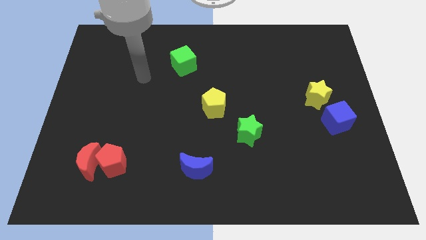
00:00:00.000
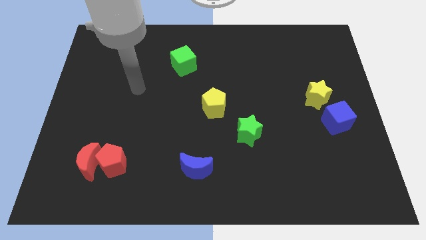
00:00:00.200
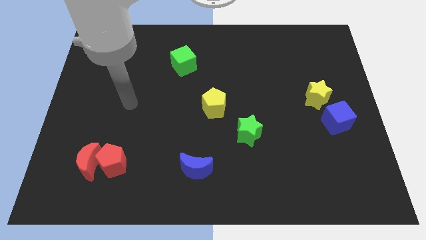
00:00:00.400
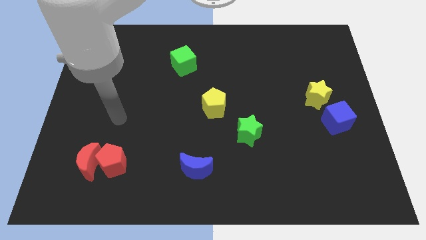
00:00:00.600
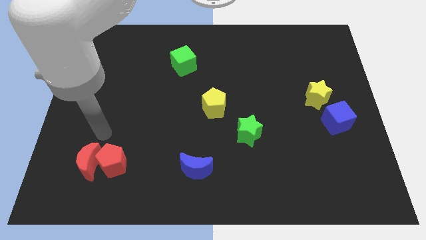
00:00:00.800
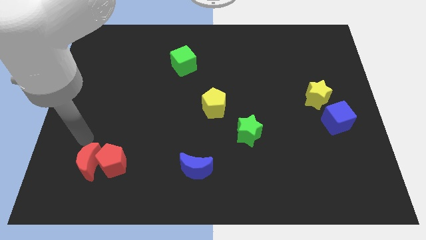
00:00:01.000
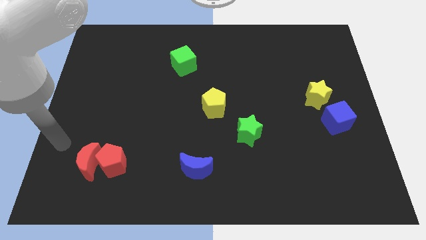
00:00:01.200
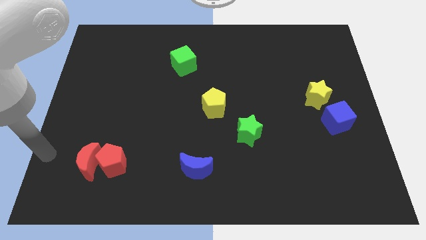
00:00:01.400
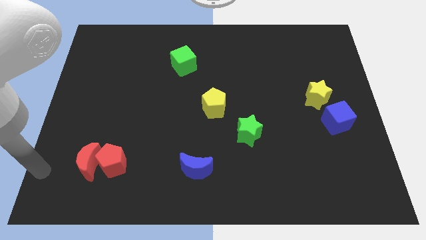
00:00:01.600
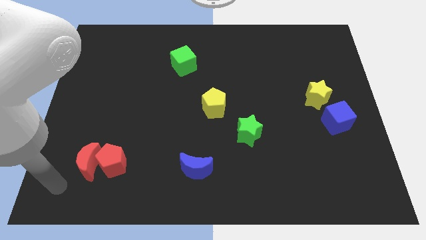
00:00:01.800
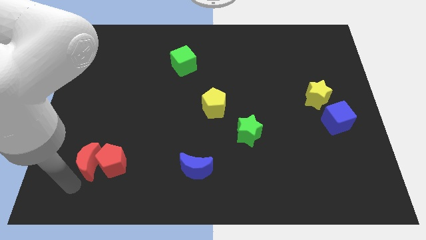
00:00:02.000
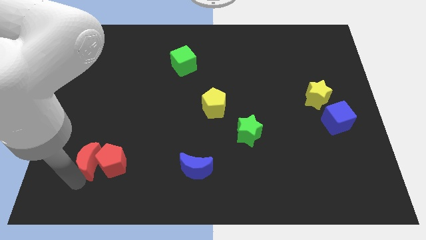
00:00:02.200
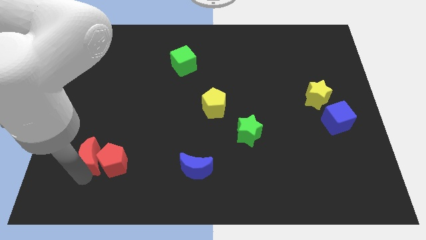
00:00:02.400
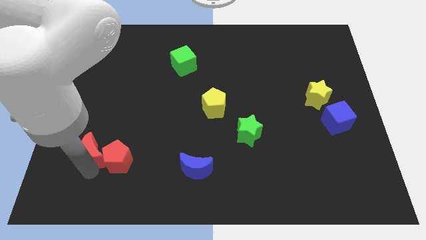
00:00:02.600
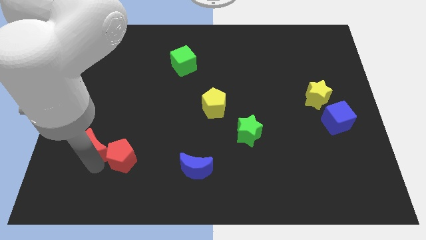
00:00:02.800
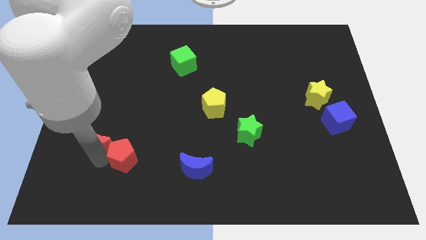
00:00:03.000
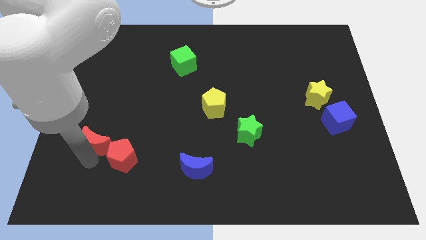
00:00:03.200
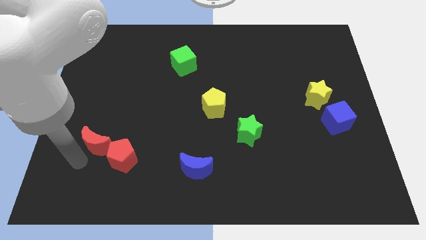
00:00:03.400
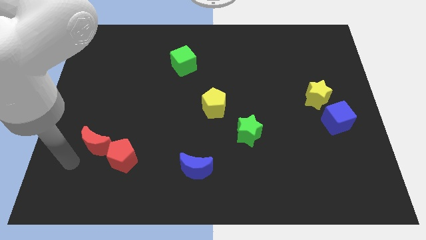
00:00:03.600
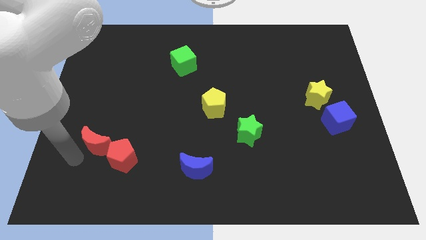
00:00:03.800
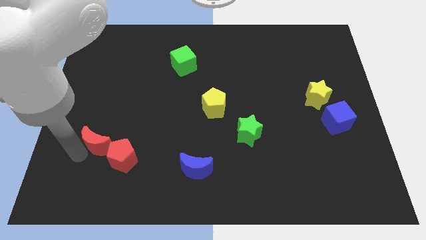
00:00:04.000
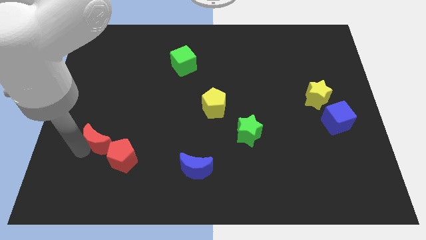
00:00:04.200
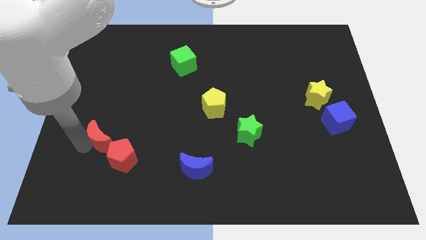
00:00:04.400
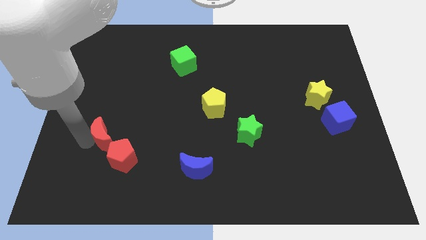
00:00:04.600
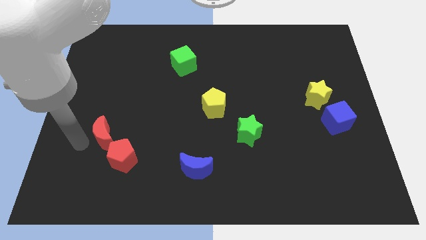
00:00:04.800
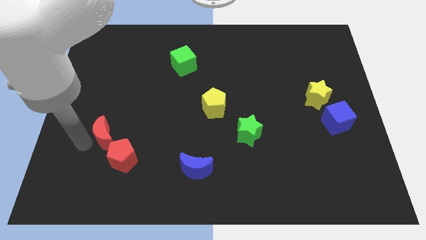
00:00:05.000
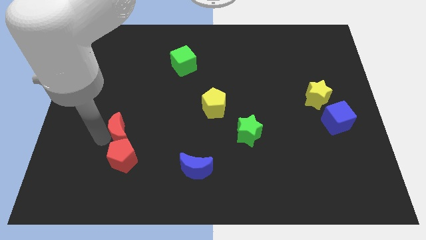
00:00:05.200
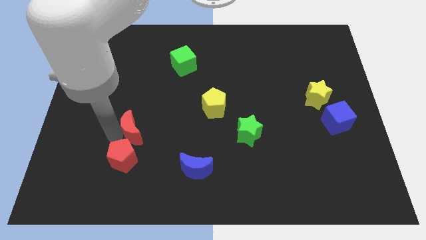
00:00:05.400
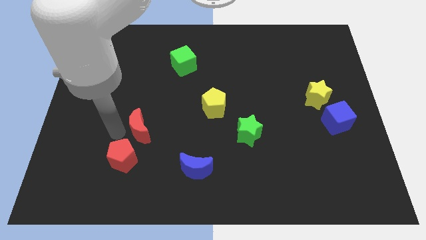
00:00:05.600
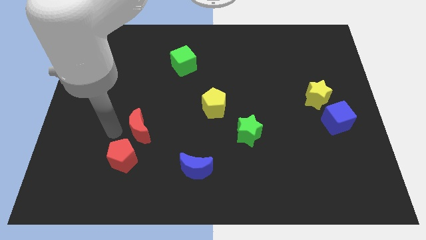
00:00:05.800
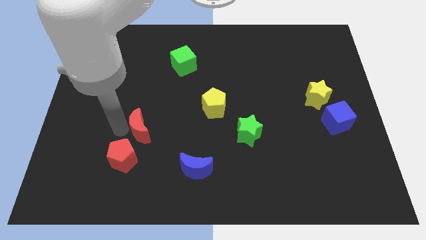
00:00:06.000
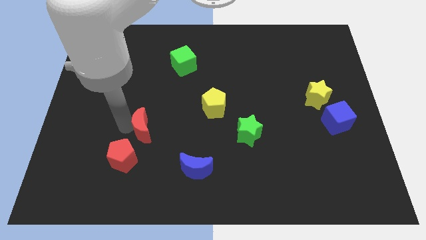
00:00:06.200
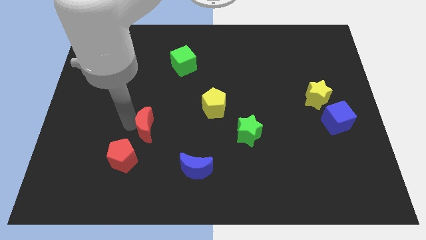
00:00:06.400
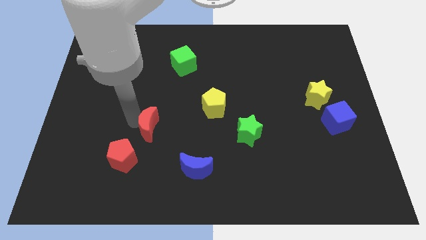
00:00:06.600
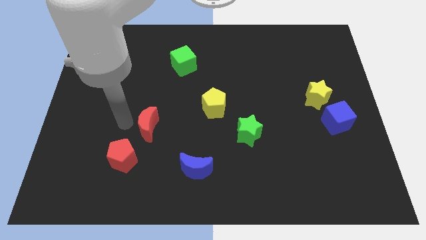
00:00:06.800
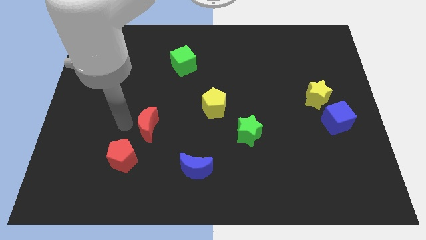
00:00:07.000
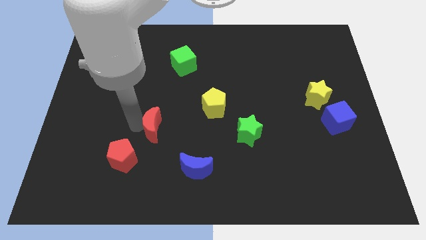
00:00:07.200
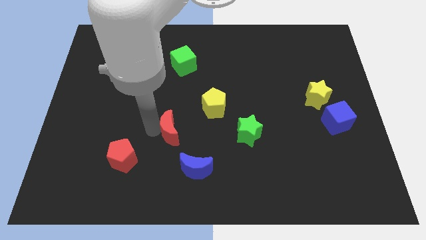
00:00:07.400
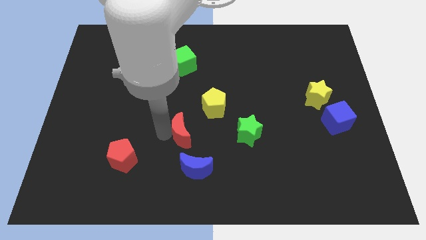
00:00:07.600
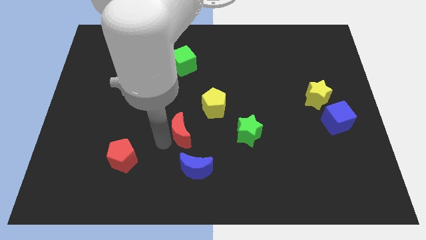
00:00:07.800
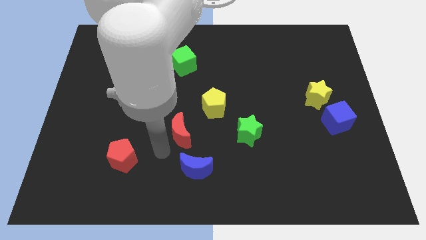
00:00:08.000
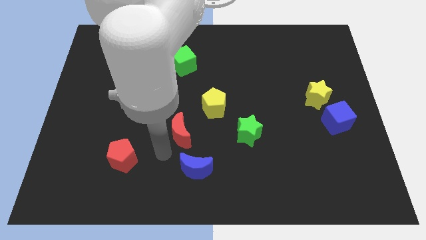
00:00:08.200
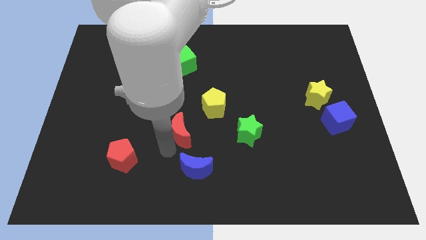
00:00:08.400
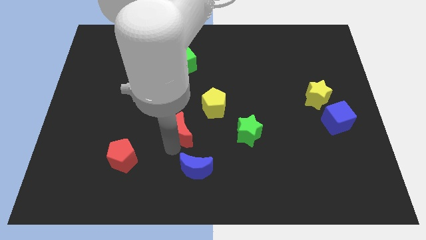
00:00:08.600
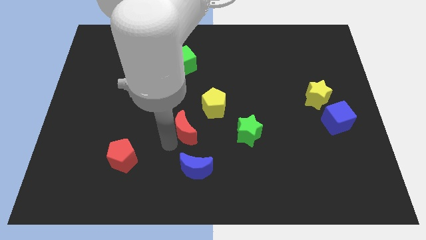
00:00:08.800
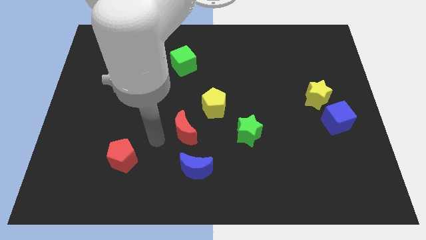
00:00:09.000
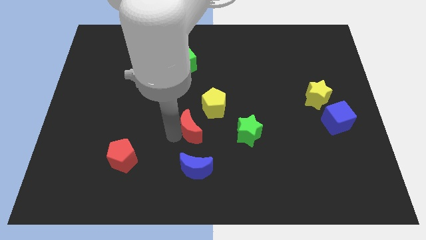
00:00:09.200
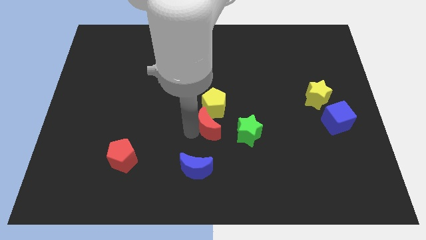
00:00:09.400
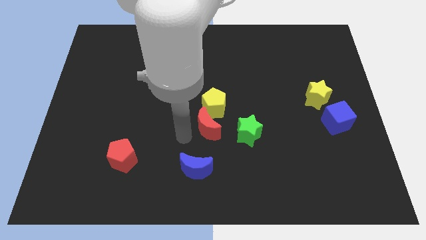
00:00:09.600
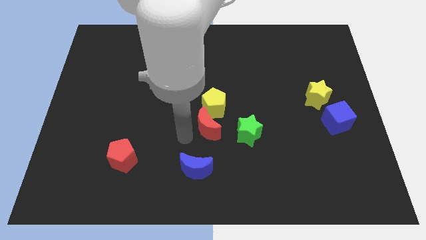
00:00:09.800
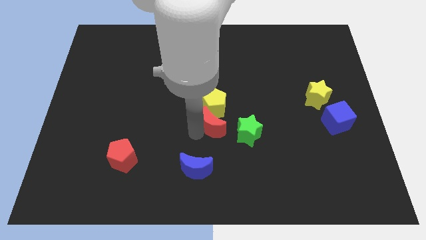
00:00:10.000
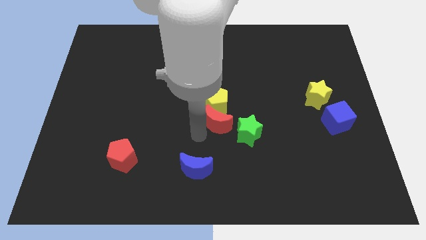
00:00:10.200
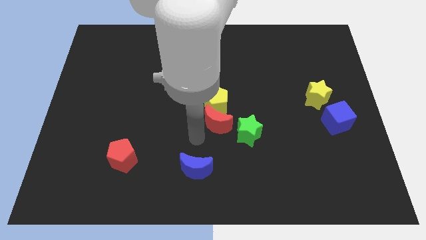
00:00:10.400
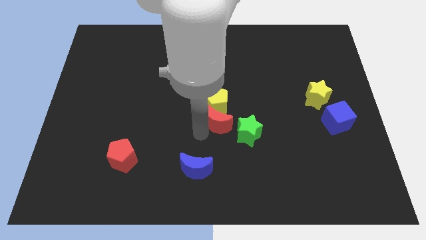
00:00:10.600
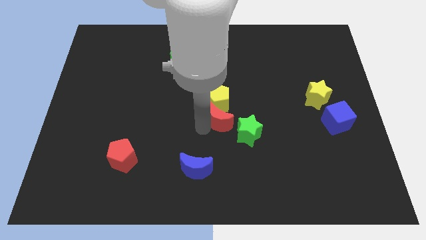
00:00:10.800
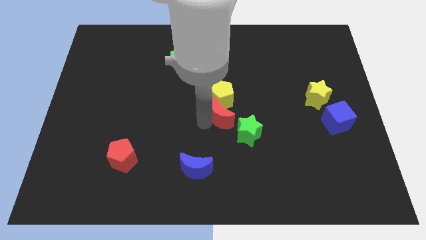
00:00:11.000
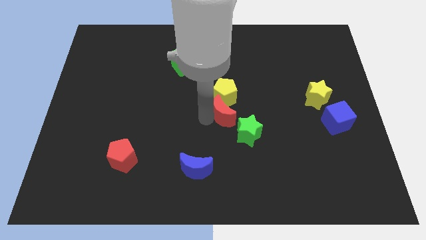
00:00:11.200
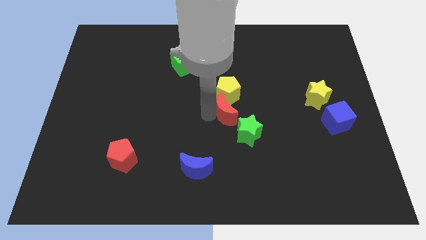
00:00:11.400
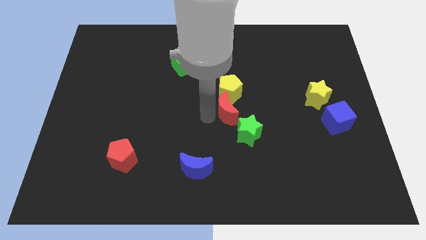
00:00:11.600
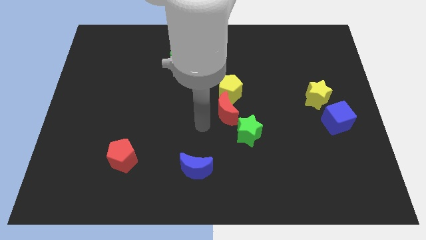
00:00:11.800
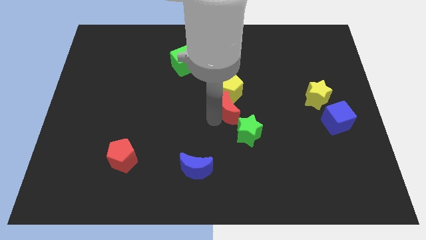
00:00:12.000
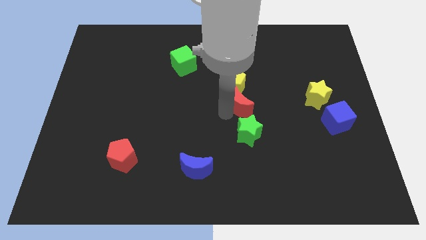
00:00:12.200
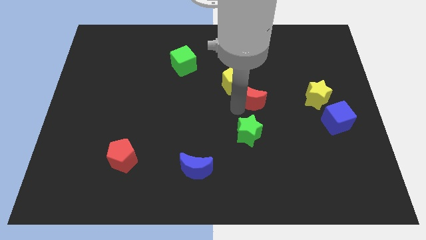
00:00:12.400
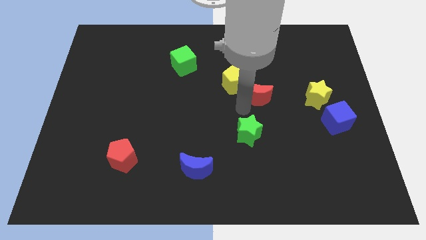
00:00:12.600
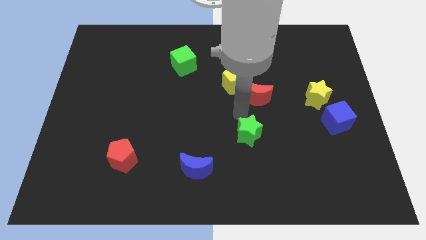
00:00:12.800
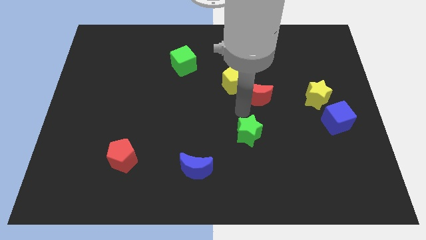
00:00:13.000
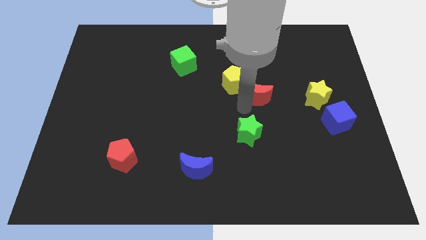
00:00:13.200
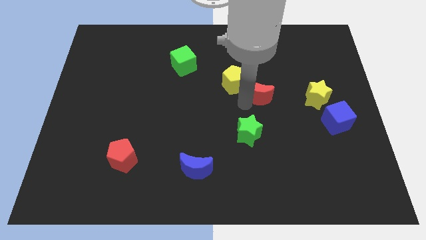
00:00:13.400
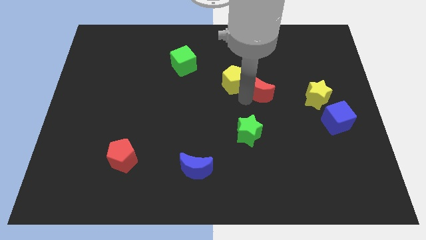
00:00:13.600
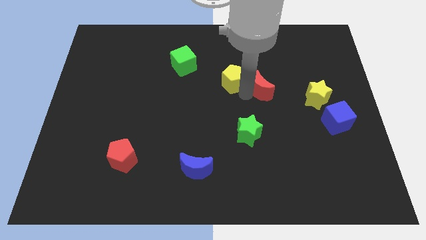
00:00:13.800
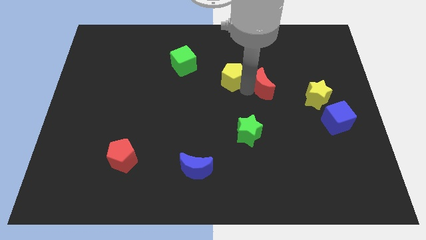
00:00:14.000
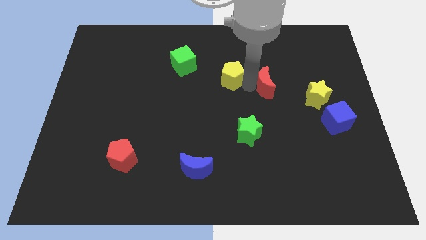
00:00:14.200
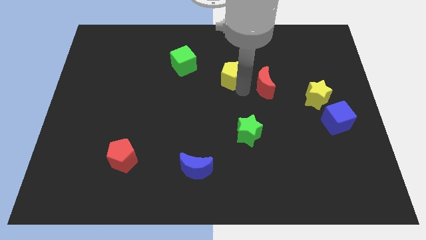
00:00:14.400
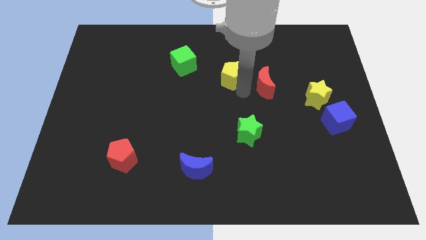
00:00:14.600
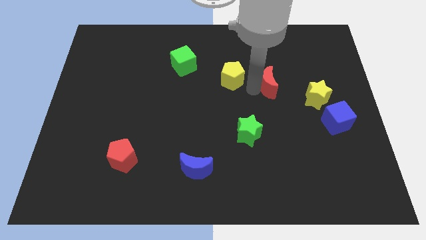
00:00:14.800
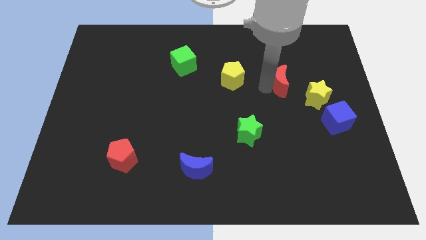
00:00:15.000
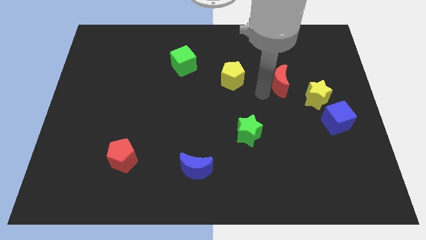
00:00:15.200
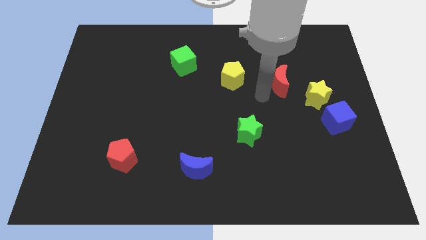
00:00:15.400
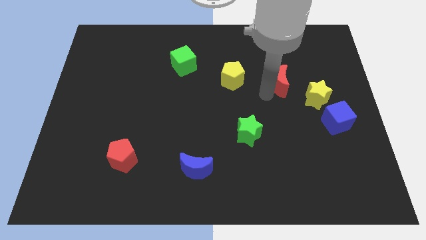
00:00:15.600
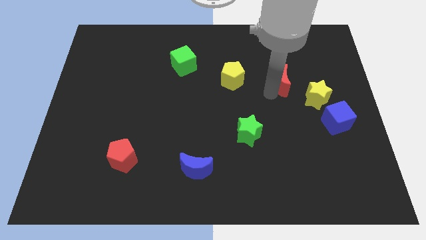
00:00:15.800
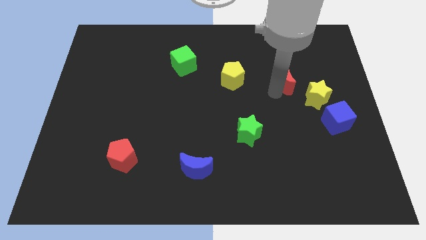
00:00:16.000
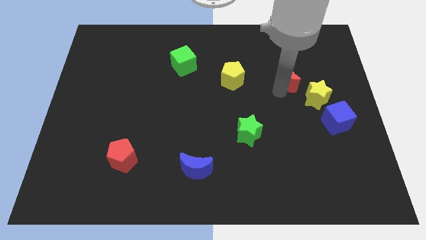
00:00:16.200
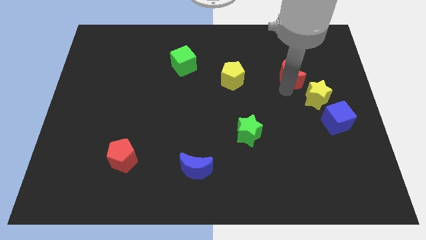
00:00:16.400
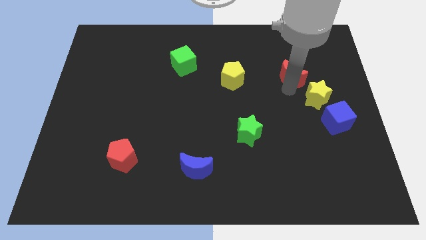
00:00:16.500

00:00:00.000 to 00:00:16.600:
put the red moon above the yellow star
